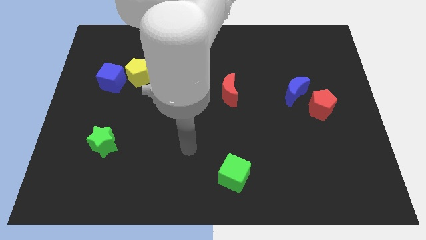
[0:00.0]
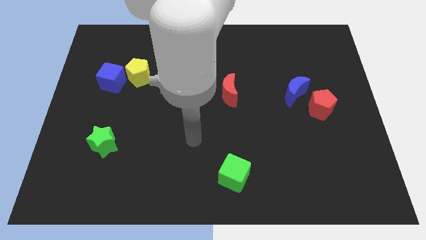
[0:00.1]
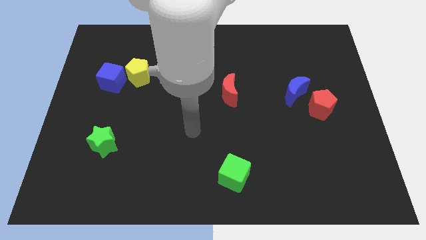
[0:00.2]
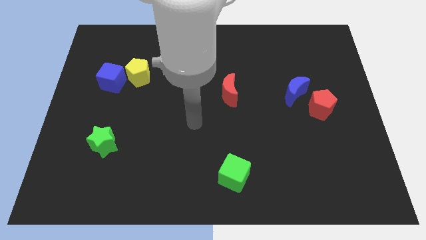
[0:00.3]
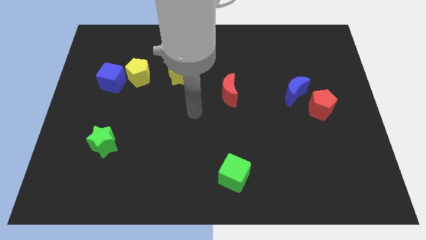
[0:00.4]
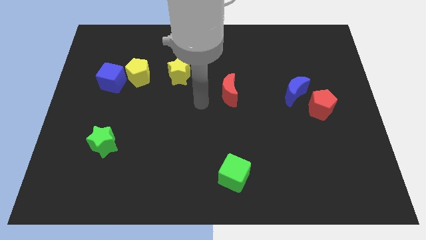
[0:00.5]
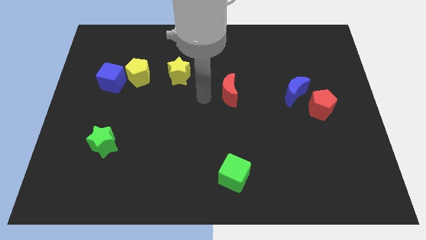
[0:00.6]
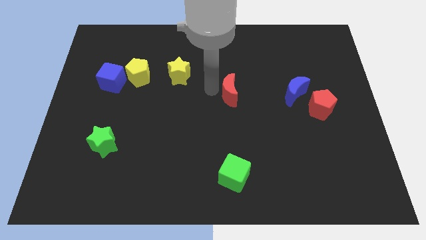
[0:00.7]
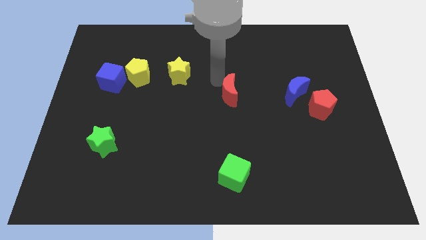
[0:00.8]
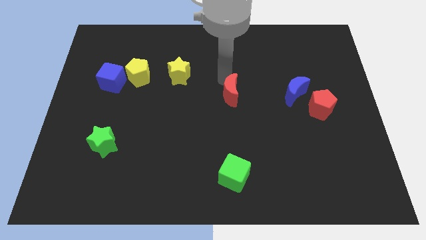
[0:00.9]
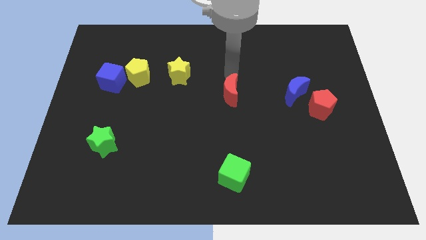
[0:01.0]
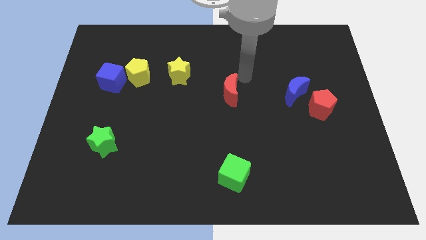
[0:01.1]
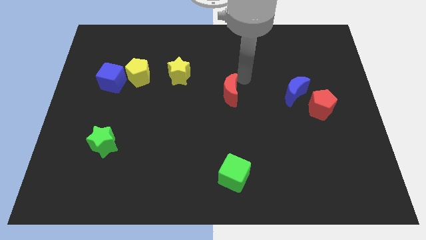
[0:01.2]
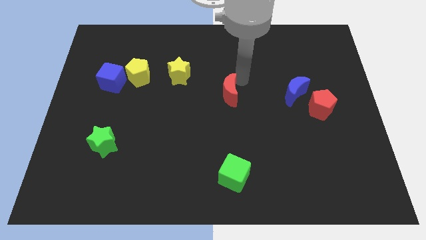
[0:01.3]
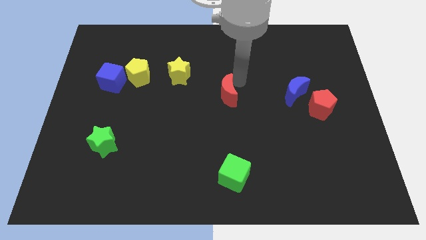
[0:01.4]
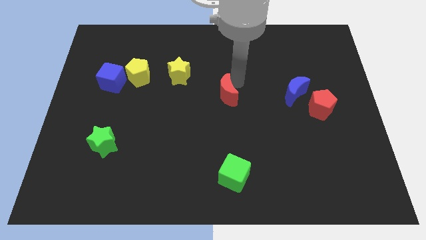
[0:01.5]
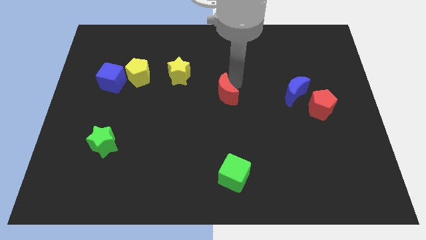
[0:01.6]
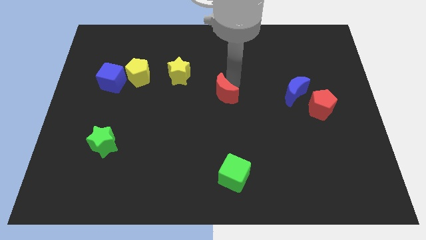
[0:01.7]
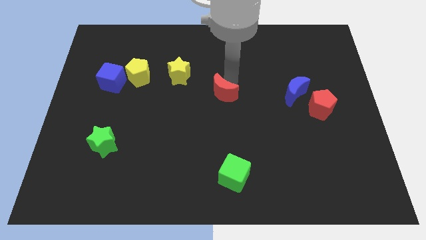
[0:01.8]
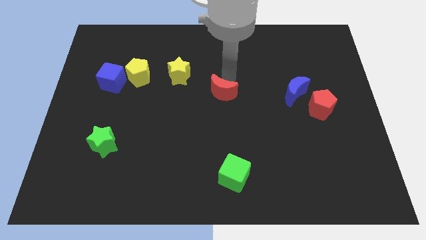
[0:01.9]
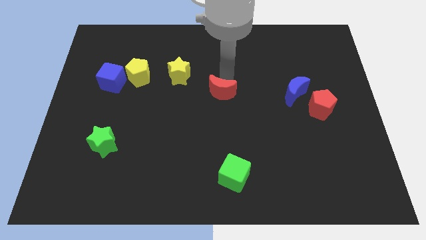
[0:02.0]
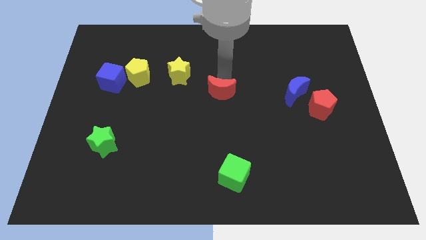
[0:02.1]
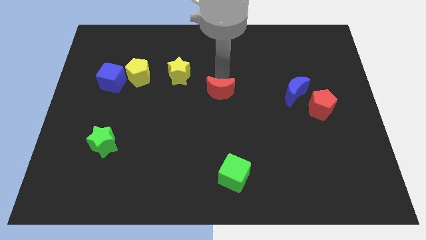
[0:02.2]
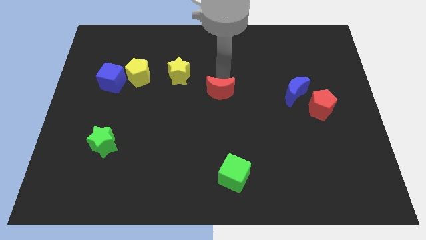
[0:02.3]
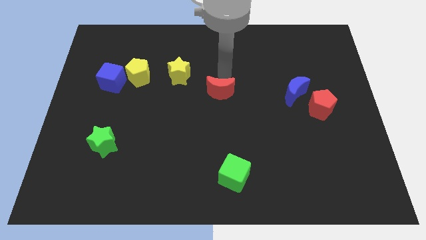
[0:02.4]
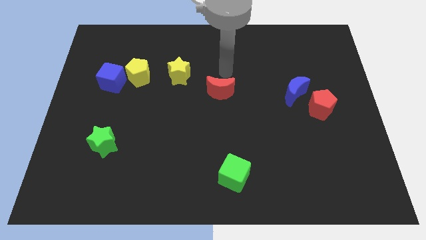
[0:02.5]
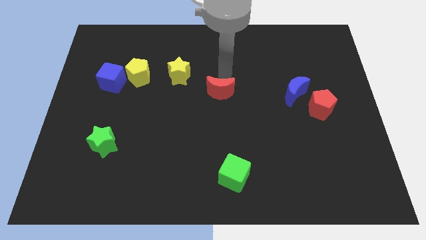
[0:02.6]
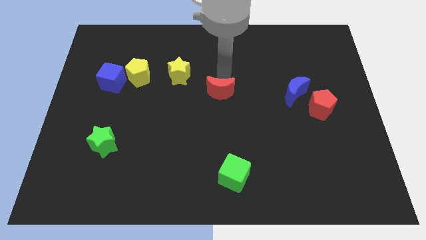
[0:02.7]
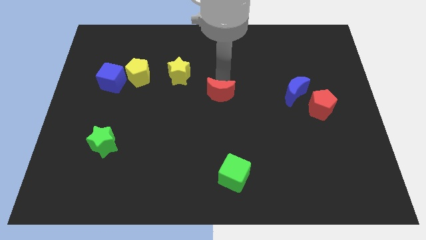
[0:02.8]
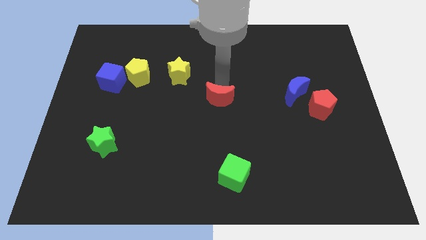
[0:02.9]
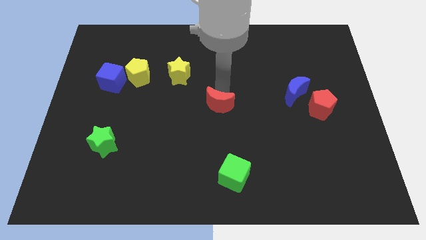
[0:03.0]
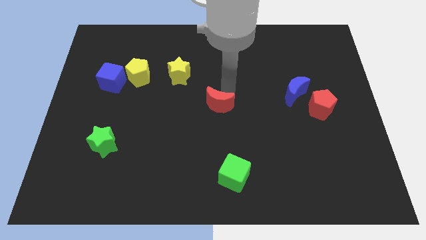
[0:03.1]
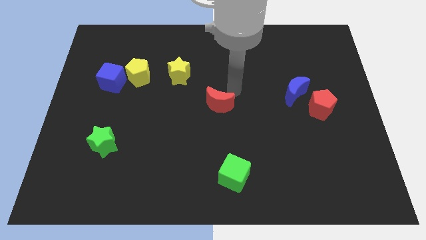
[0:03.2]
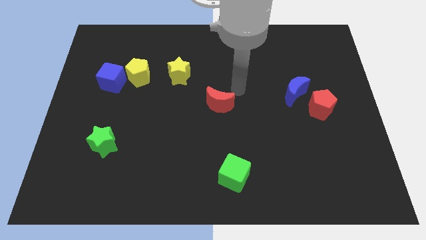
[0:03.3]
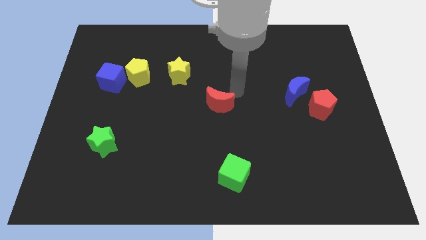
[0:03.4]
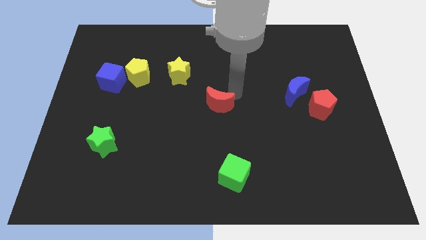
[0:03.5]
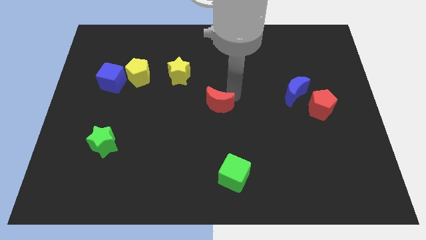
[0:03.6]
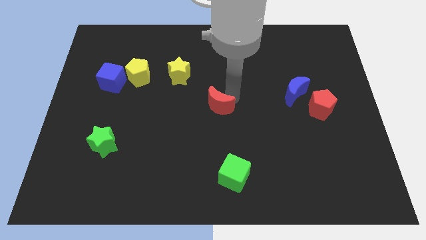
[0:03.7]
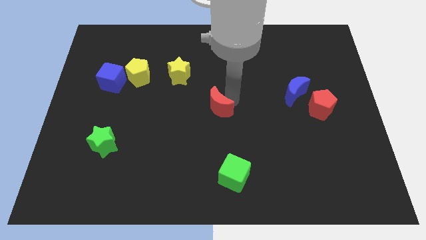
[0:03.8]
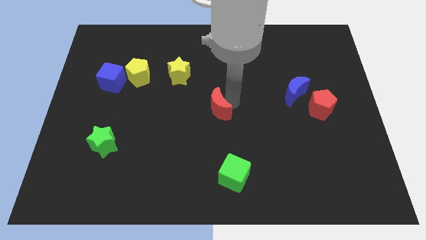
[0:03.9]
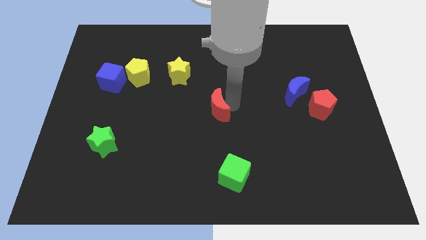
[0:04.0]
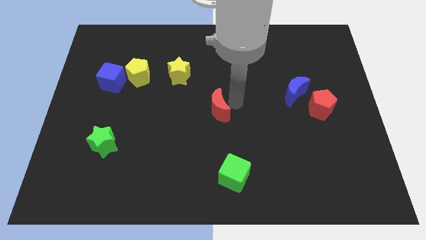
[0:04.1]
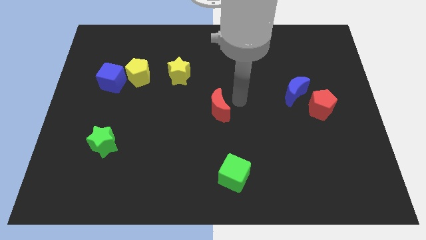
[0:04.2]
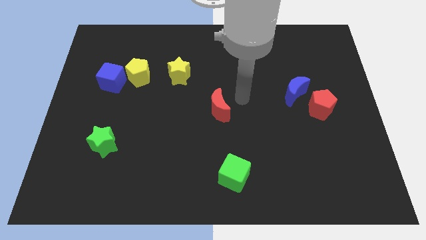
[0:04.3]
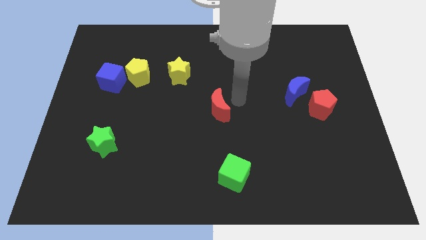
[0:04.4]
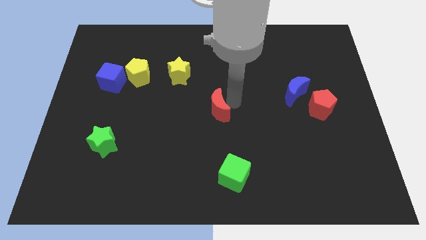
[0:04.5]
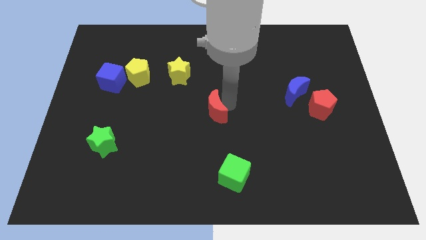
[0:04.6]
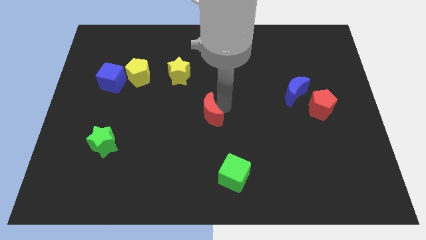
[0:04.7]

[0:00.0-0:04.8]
slightly push the red moon down and left diagonally

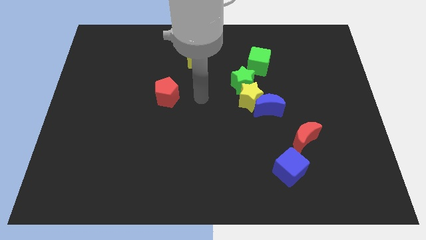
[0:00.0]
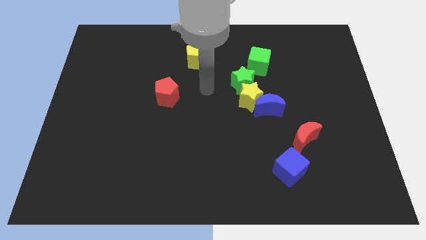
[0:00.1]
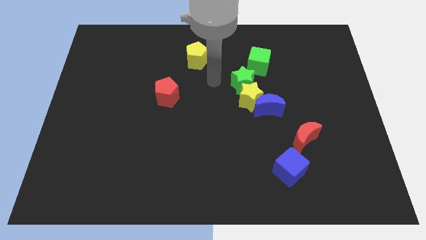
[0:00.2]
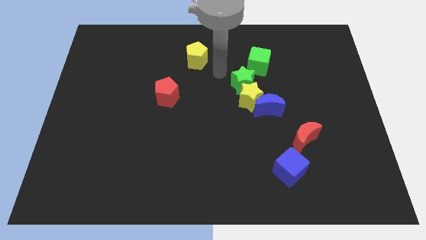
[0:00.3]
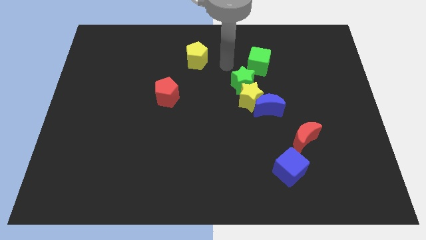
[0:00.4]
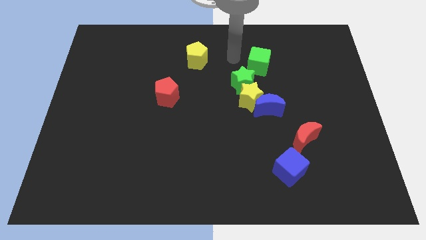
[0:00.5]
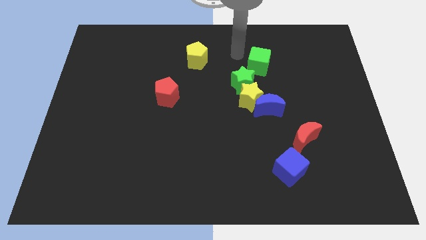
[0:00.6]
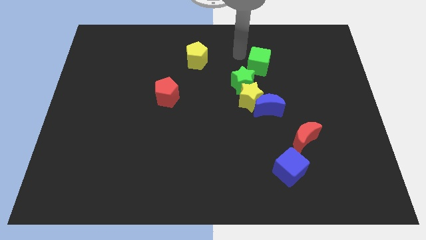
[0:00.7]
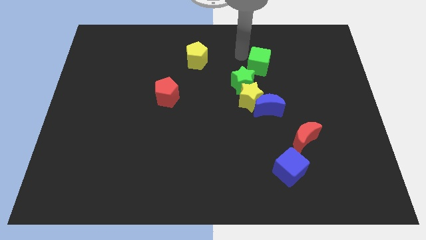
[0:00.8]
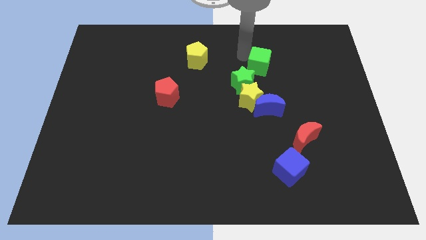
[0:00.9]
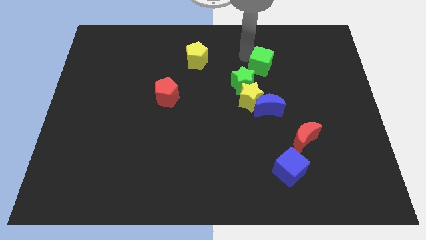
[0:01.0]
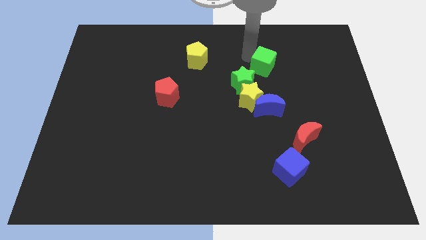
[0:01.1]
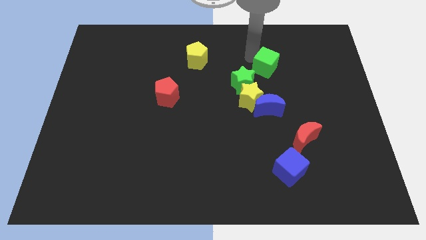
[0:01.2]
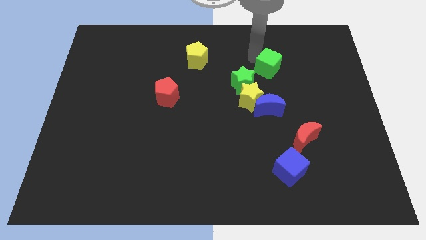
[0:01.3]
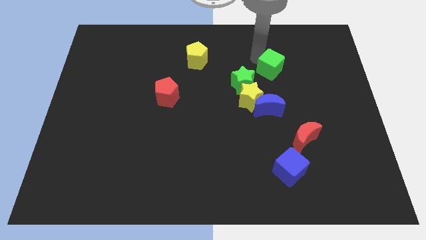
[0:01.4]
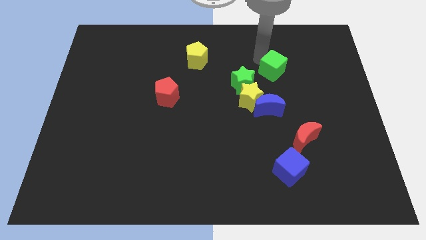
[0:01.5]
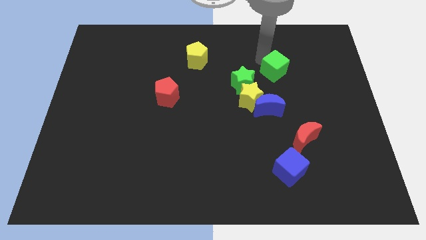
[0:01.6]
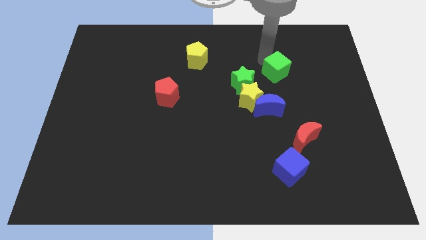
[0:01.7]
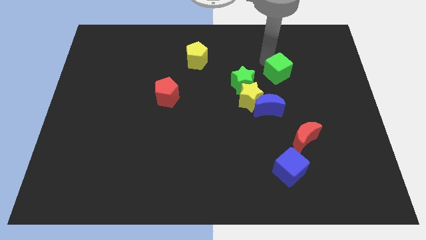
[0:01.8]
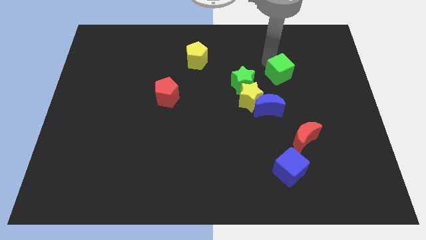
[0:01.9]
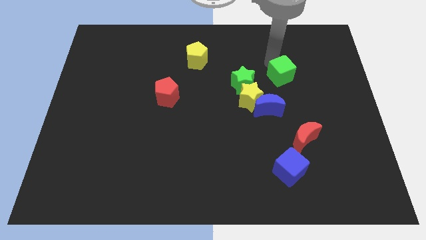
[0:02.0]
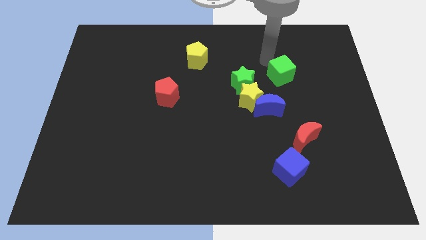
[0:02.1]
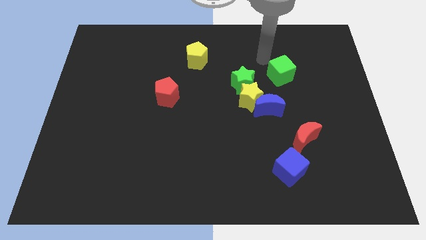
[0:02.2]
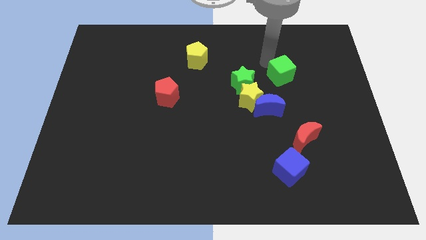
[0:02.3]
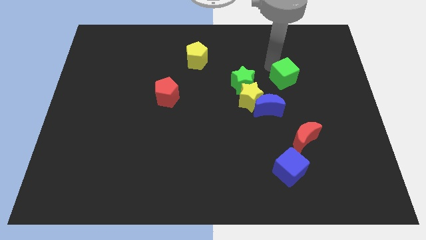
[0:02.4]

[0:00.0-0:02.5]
slide the green cube downwards and then right a little

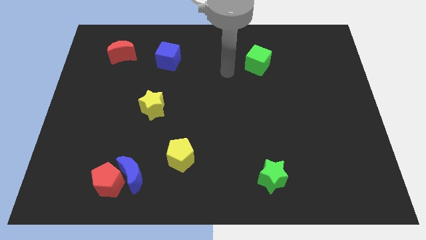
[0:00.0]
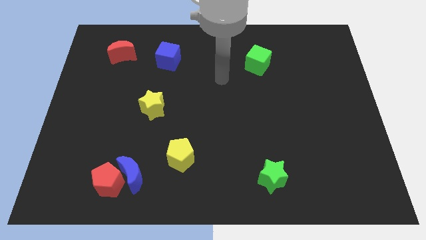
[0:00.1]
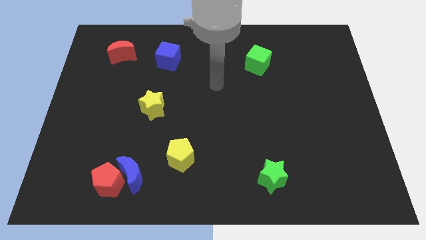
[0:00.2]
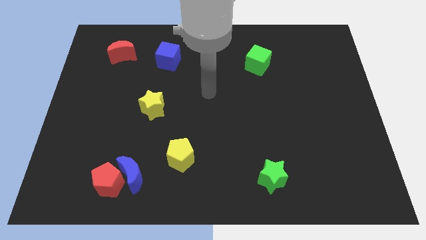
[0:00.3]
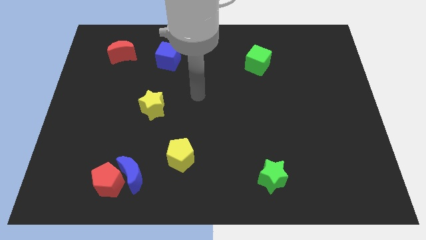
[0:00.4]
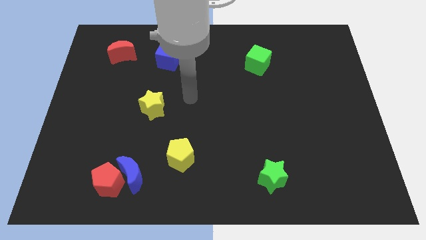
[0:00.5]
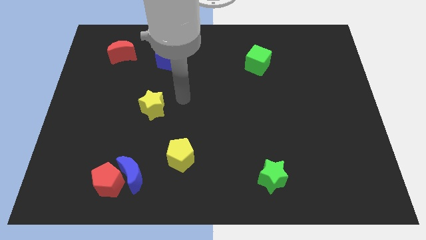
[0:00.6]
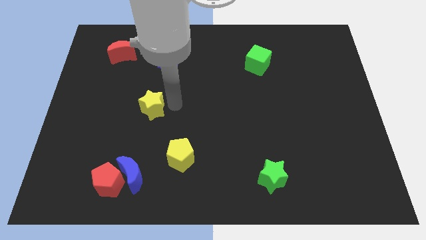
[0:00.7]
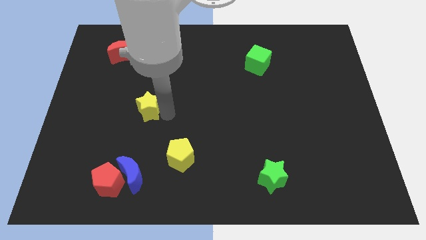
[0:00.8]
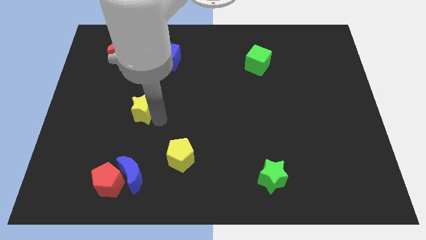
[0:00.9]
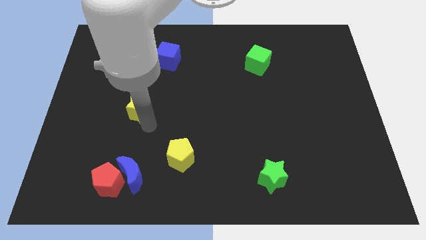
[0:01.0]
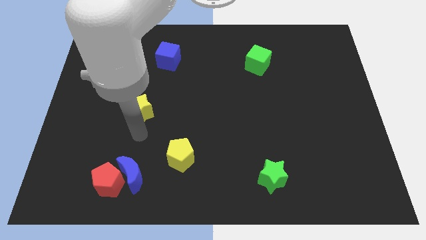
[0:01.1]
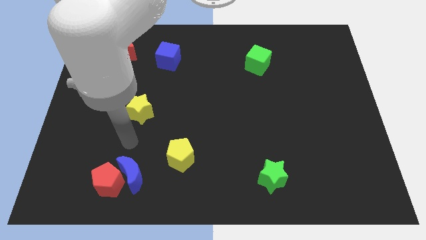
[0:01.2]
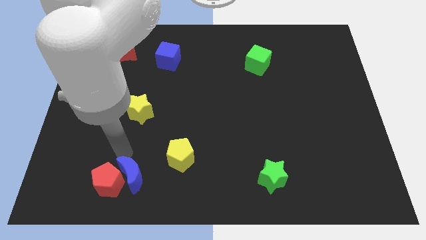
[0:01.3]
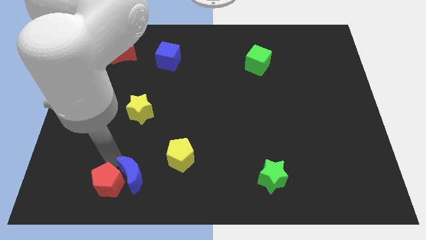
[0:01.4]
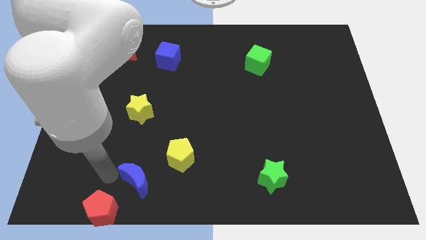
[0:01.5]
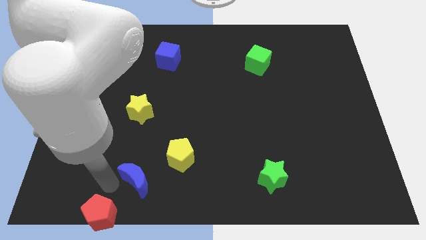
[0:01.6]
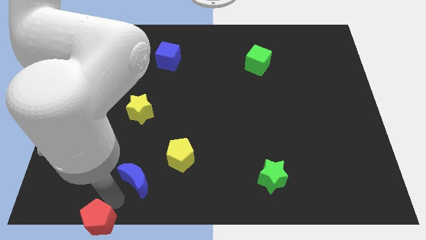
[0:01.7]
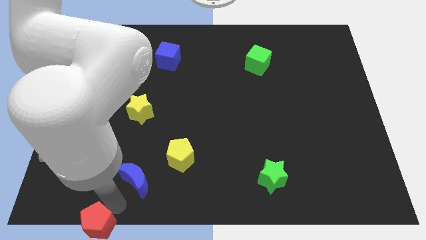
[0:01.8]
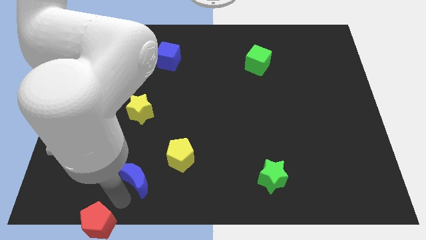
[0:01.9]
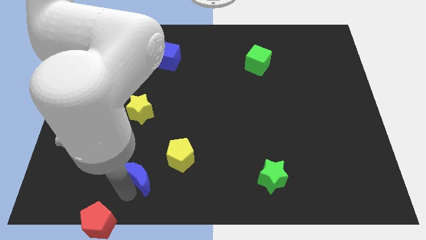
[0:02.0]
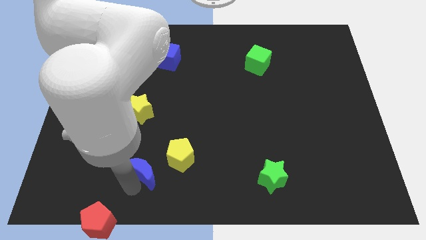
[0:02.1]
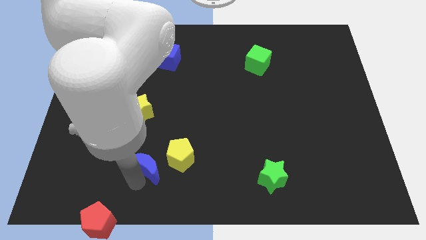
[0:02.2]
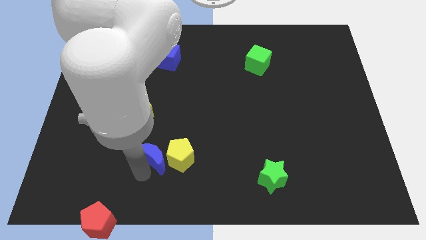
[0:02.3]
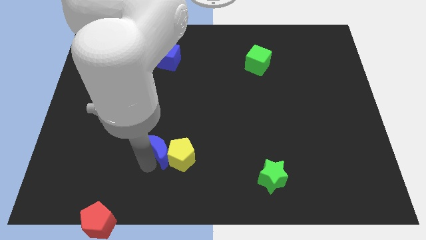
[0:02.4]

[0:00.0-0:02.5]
move the blue moon upwards and then to the right somewhat
